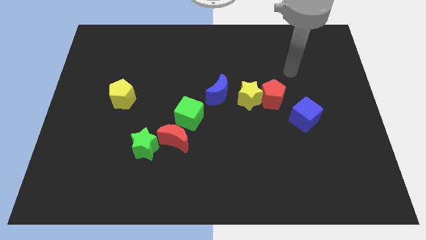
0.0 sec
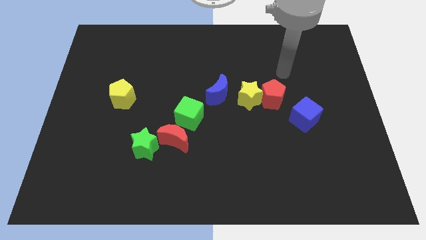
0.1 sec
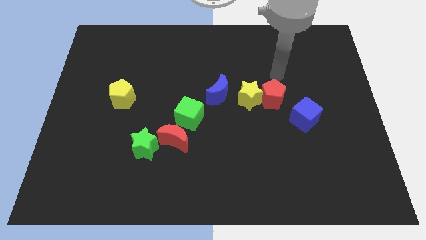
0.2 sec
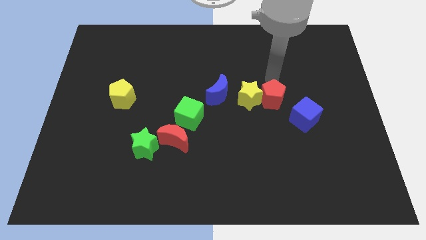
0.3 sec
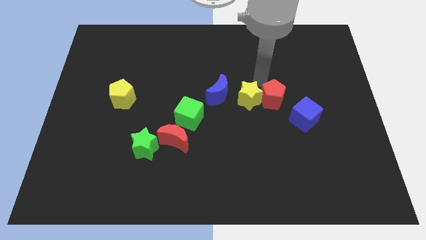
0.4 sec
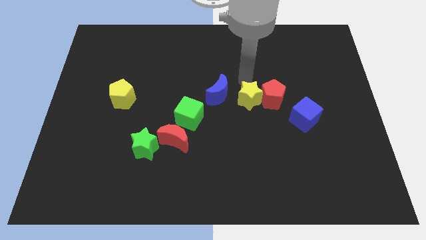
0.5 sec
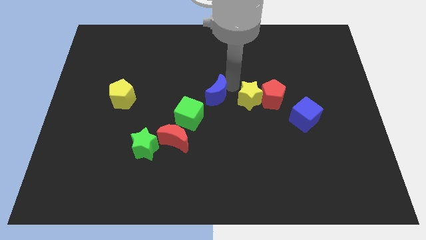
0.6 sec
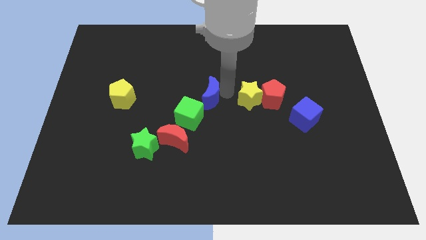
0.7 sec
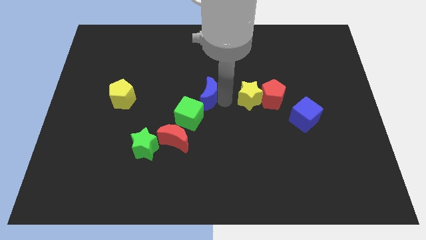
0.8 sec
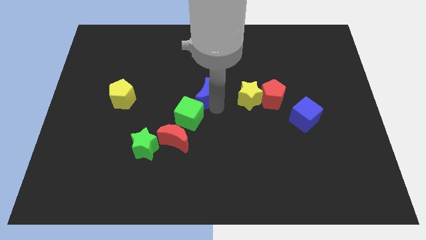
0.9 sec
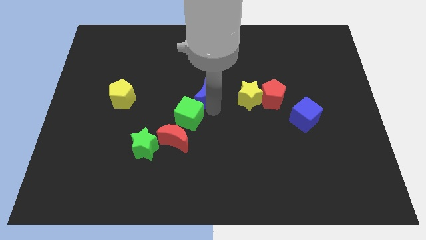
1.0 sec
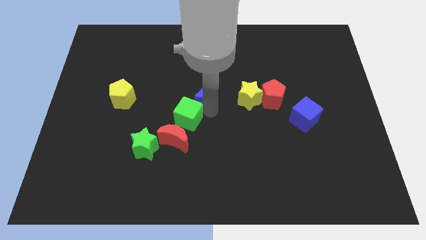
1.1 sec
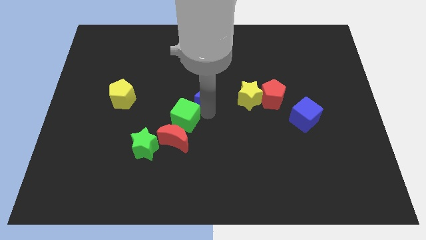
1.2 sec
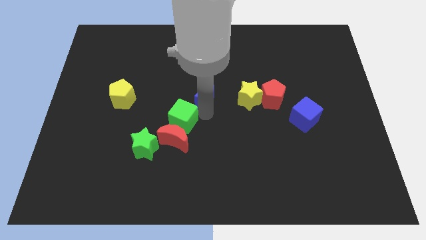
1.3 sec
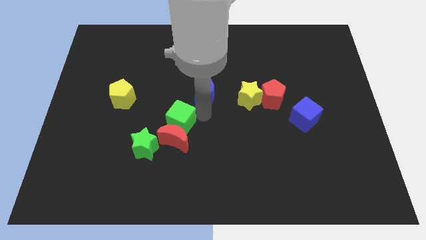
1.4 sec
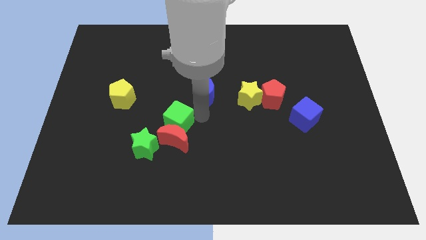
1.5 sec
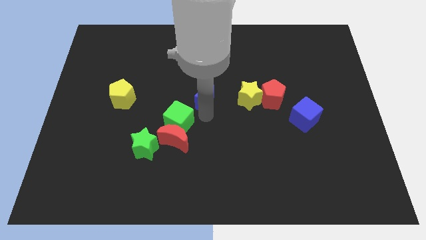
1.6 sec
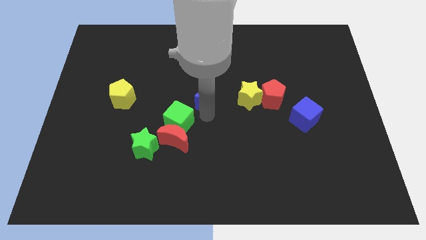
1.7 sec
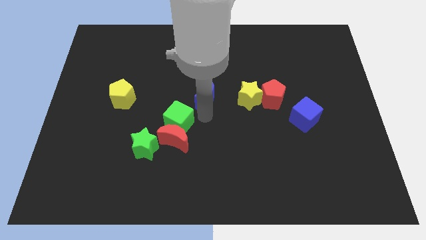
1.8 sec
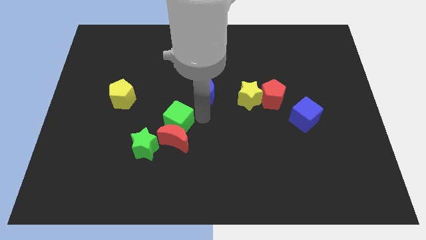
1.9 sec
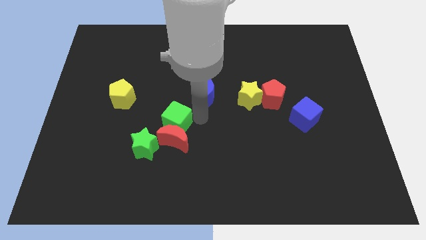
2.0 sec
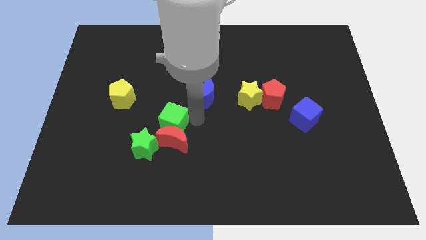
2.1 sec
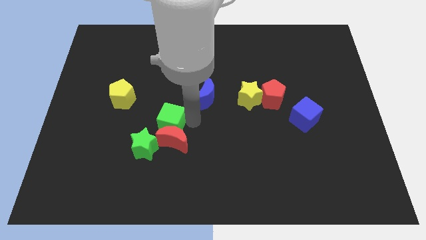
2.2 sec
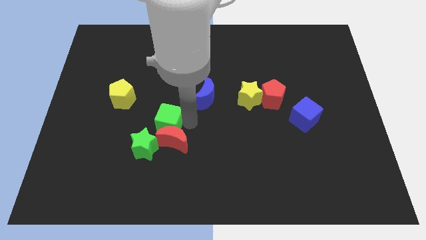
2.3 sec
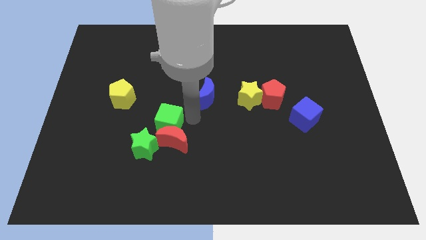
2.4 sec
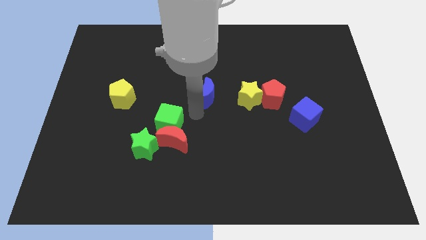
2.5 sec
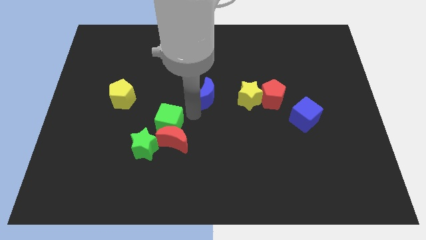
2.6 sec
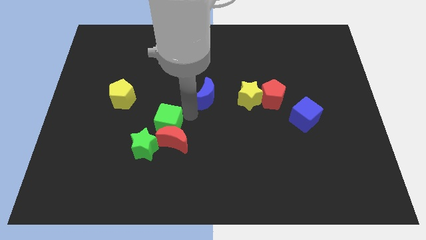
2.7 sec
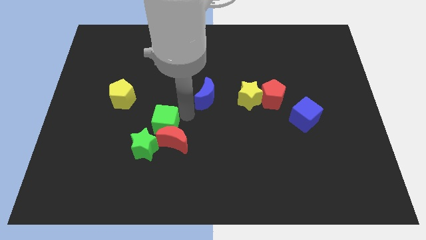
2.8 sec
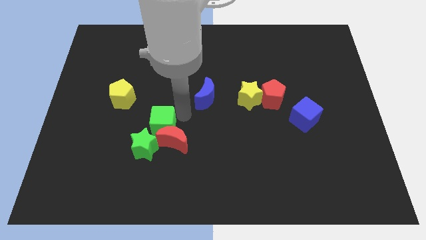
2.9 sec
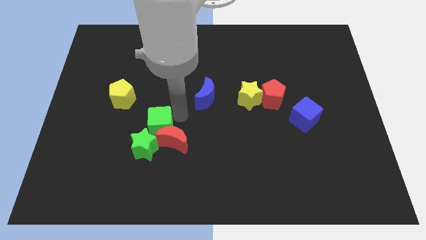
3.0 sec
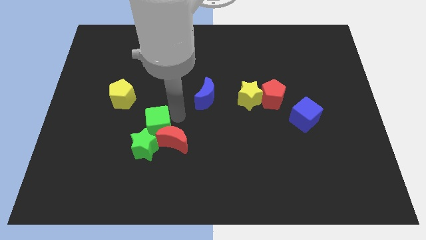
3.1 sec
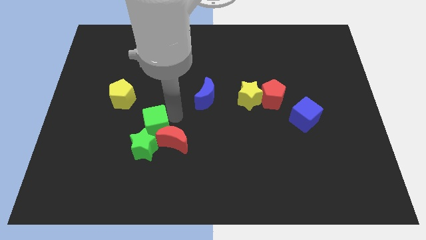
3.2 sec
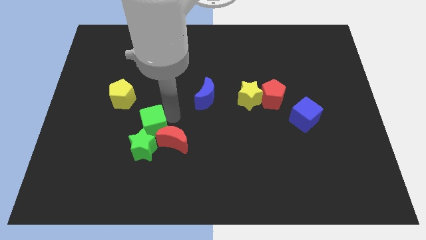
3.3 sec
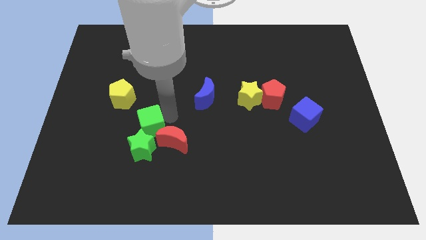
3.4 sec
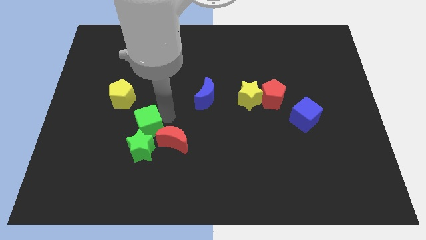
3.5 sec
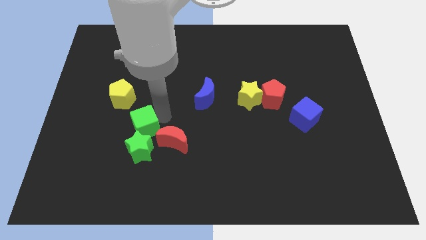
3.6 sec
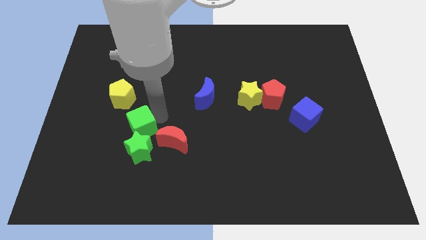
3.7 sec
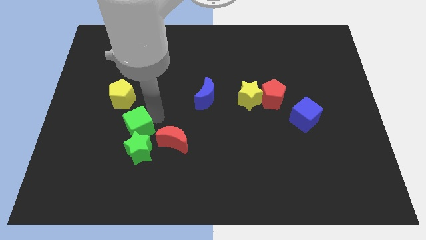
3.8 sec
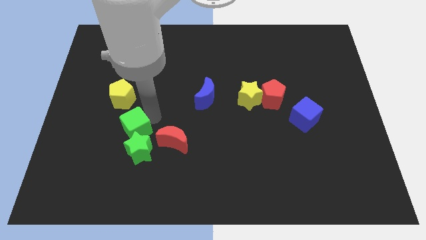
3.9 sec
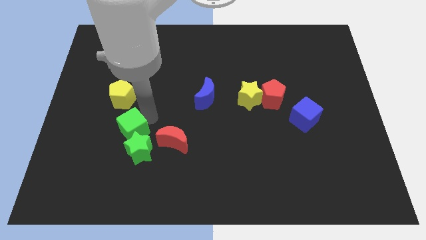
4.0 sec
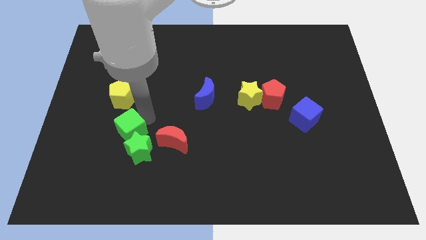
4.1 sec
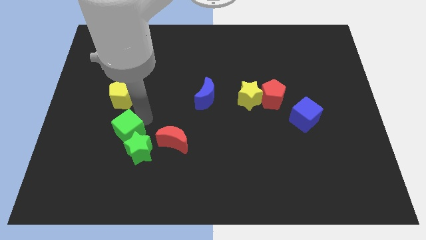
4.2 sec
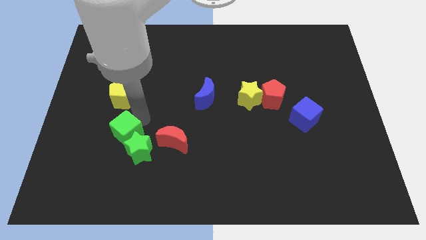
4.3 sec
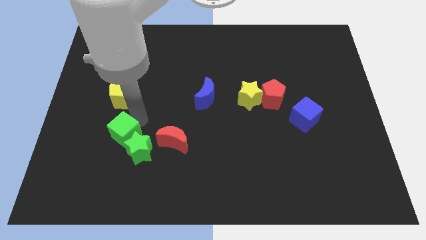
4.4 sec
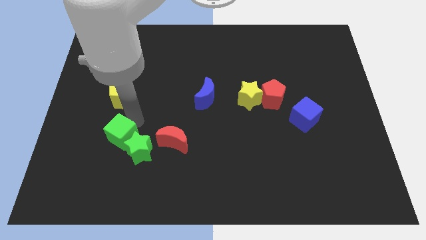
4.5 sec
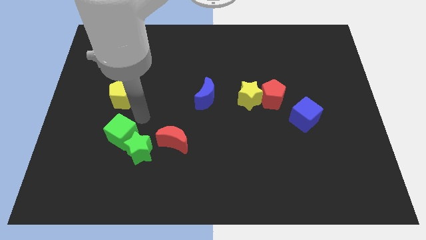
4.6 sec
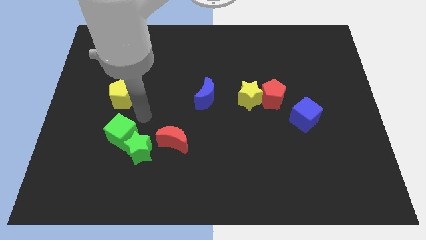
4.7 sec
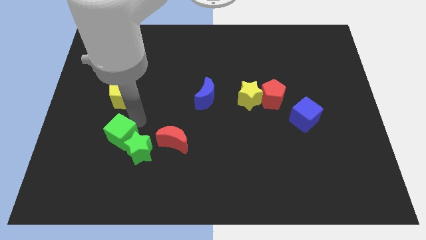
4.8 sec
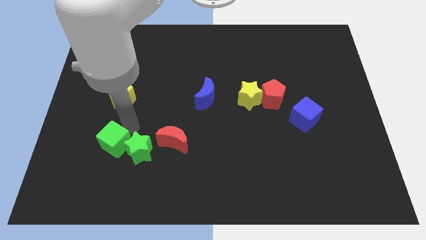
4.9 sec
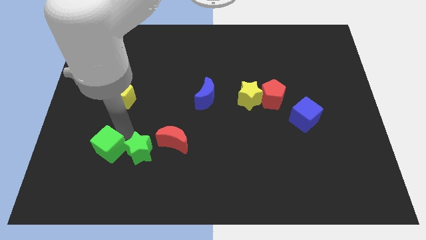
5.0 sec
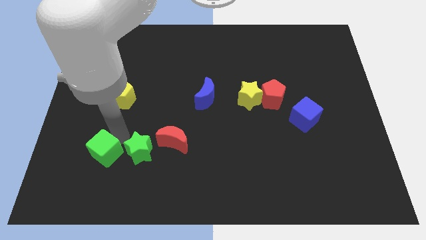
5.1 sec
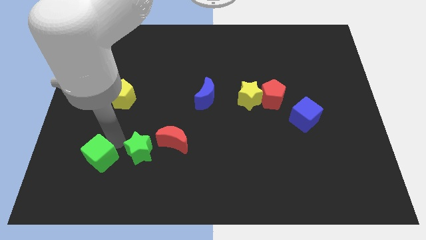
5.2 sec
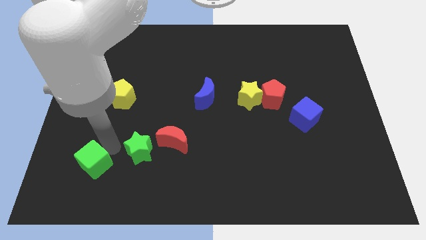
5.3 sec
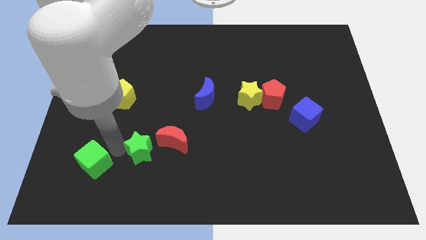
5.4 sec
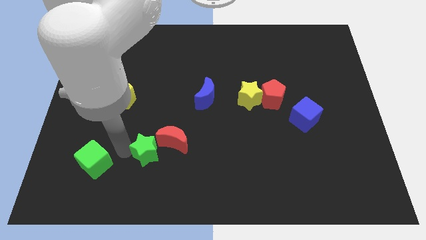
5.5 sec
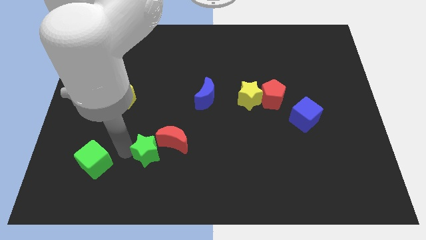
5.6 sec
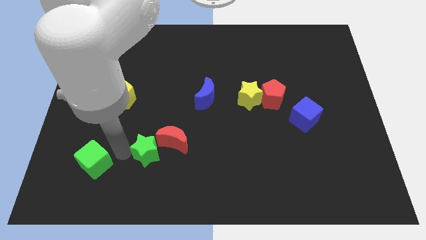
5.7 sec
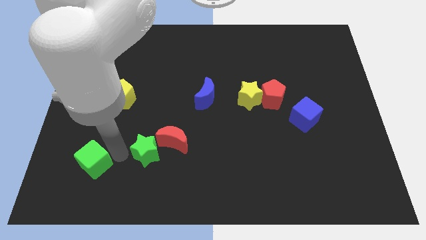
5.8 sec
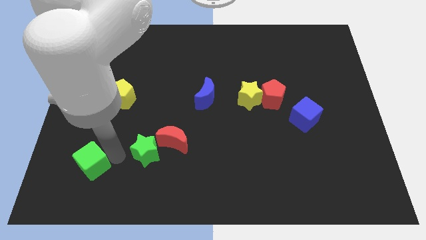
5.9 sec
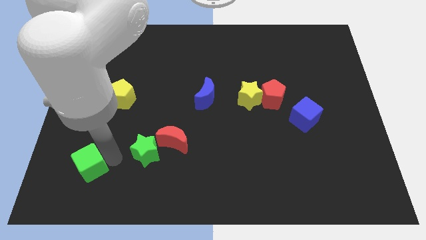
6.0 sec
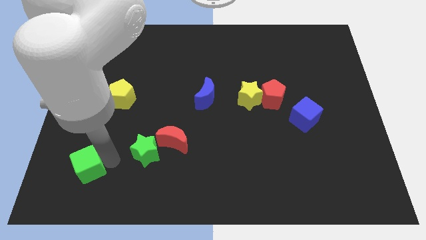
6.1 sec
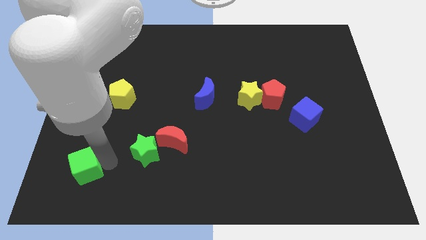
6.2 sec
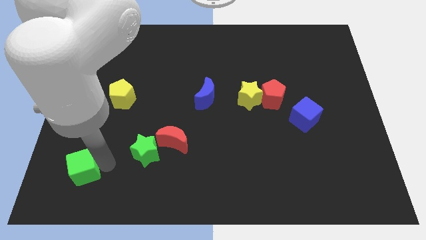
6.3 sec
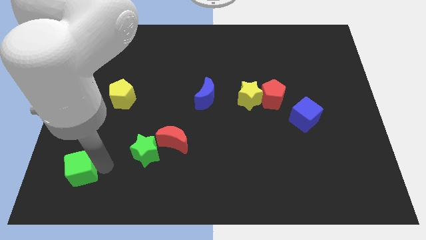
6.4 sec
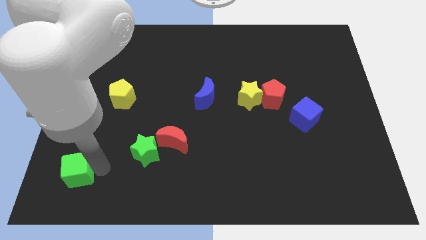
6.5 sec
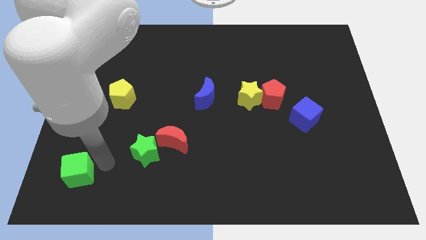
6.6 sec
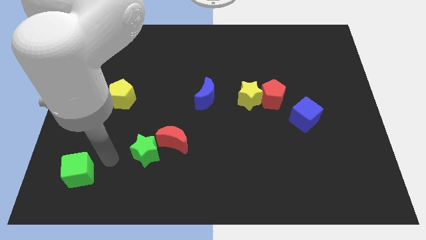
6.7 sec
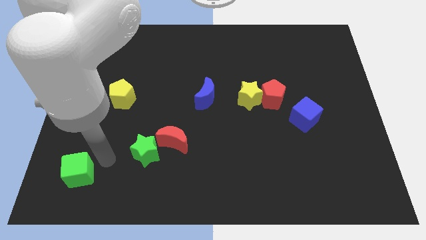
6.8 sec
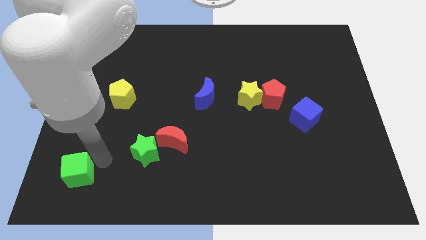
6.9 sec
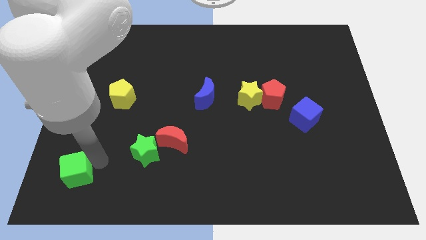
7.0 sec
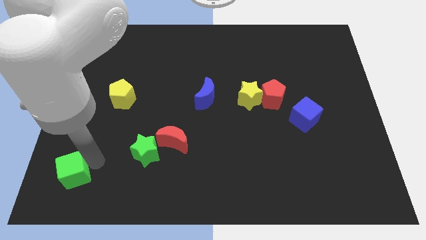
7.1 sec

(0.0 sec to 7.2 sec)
slide the green cube to the lower left corner
